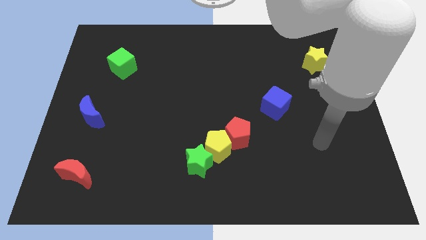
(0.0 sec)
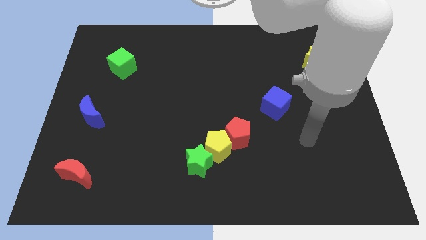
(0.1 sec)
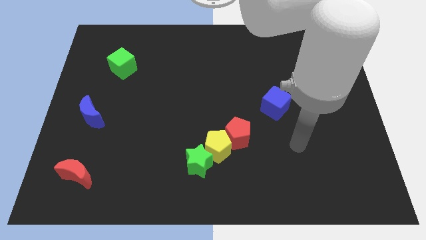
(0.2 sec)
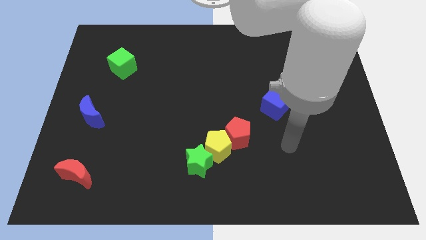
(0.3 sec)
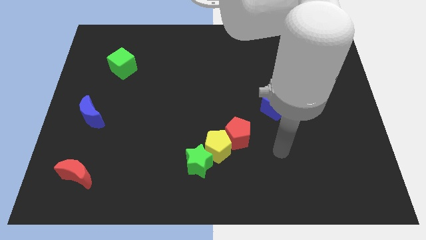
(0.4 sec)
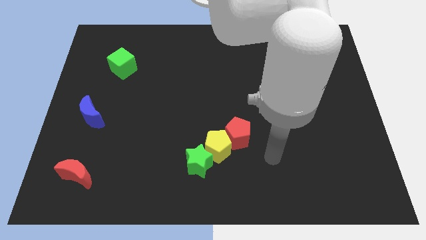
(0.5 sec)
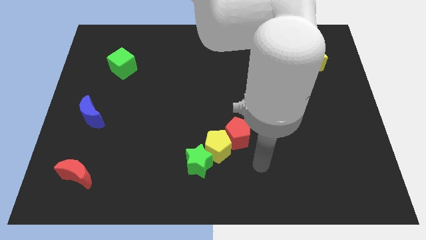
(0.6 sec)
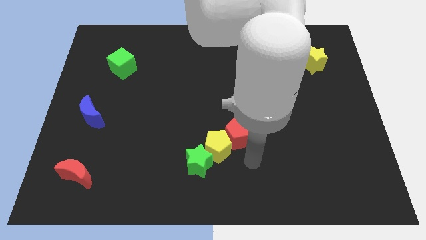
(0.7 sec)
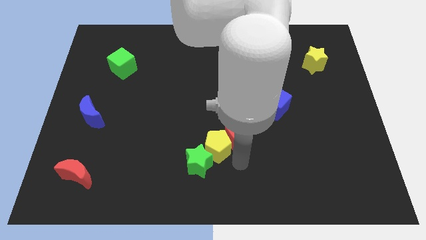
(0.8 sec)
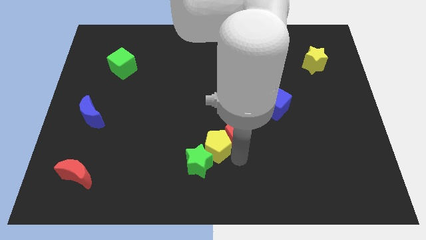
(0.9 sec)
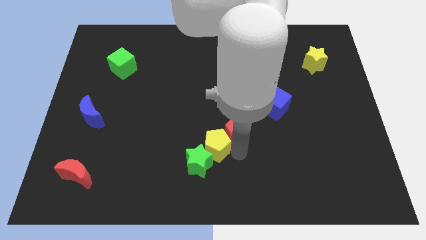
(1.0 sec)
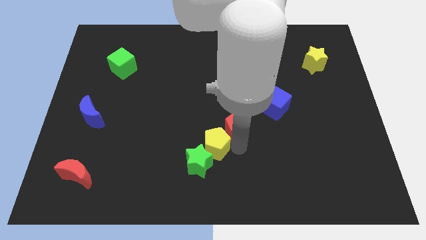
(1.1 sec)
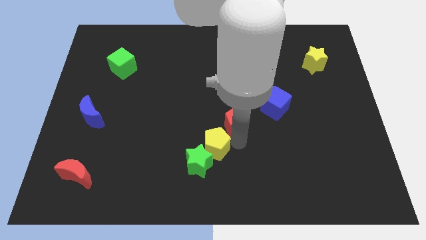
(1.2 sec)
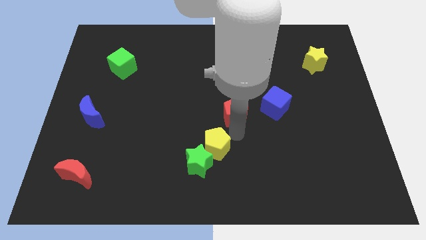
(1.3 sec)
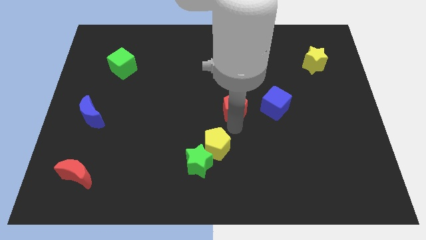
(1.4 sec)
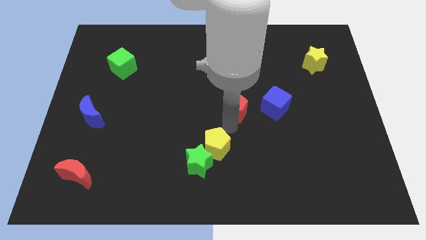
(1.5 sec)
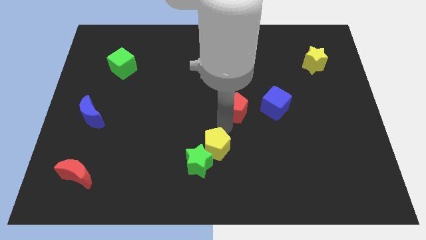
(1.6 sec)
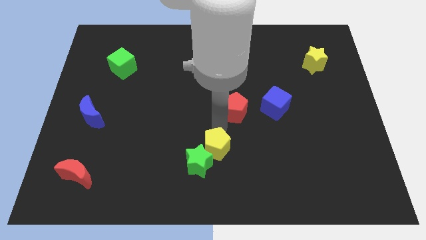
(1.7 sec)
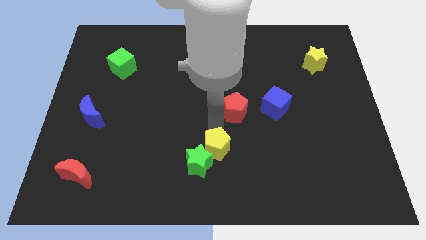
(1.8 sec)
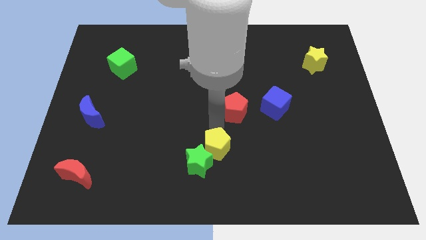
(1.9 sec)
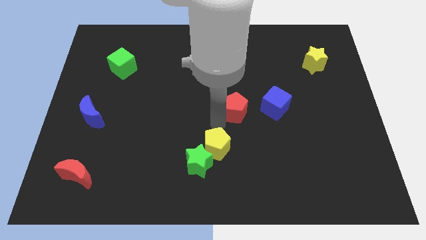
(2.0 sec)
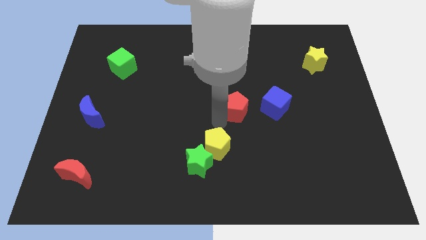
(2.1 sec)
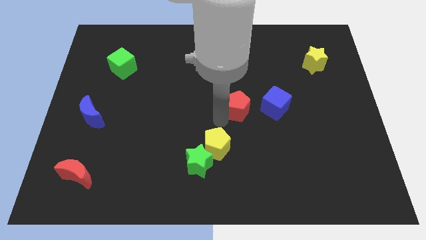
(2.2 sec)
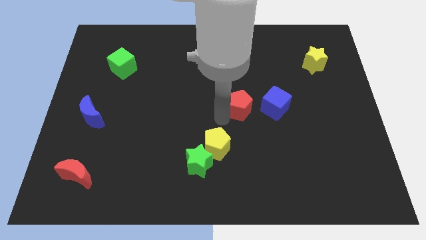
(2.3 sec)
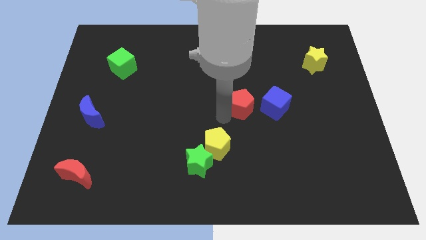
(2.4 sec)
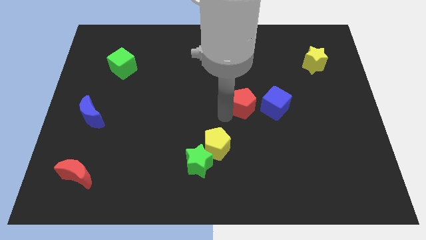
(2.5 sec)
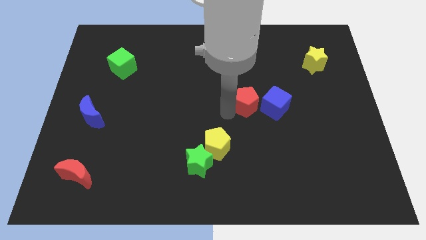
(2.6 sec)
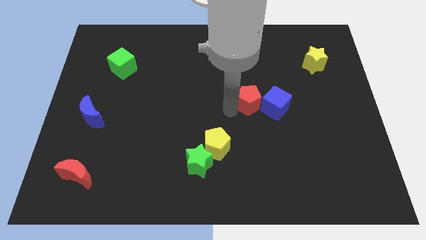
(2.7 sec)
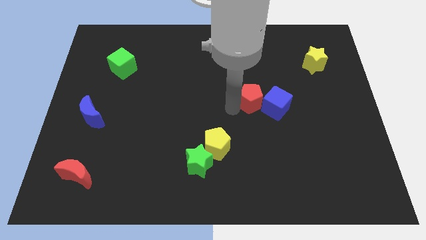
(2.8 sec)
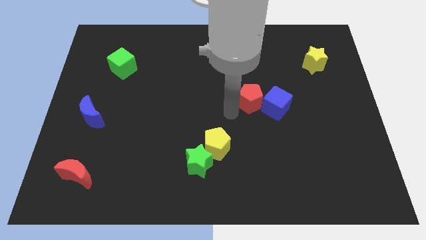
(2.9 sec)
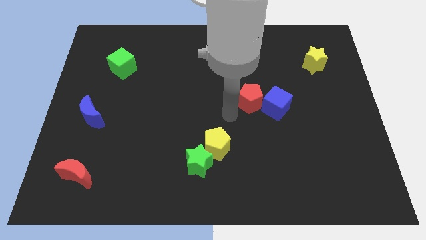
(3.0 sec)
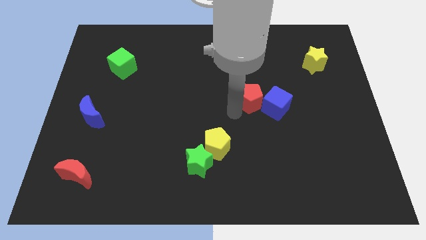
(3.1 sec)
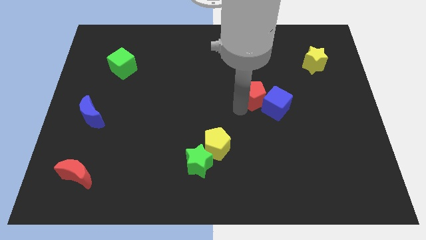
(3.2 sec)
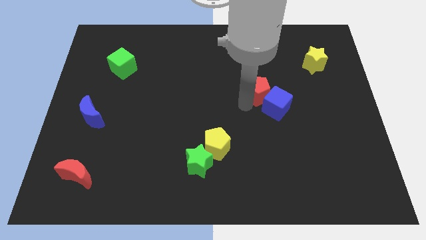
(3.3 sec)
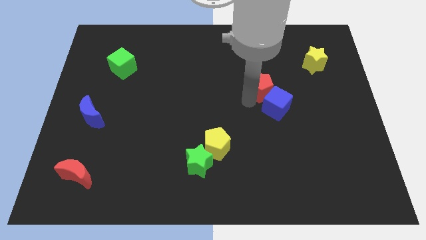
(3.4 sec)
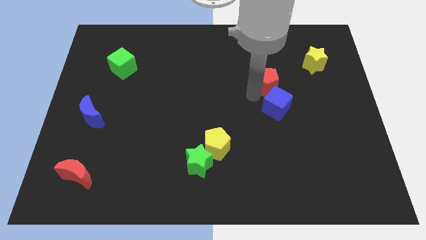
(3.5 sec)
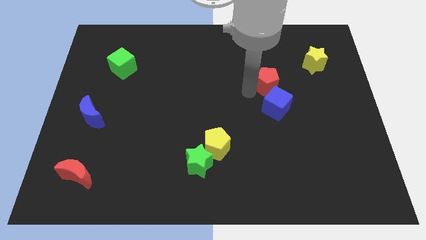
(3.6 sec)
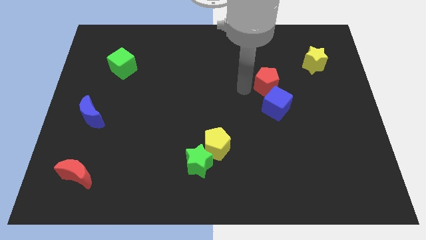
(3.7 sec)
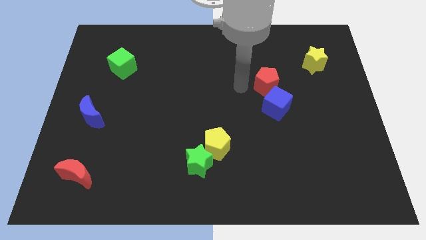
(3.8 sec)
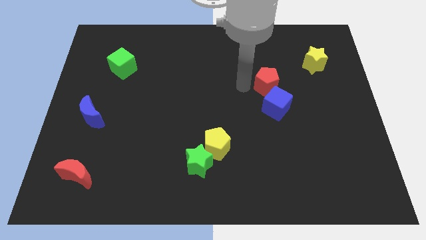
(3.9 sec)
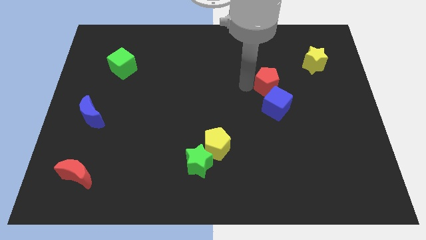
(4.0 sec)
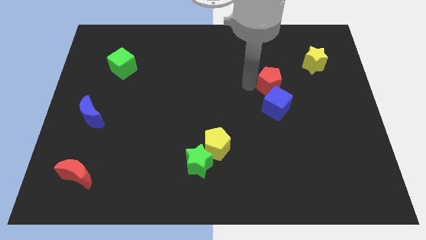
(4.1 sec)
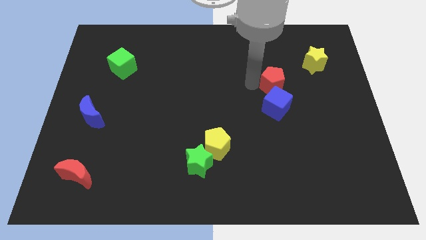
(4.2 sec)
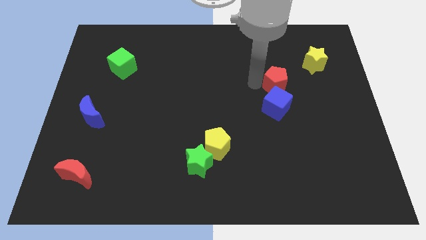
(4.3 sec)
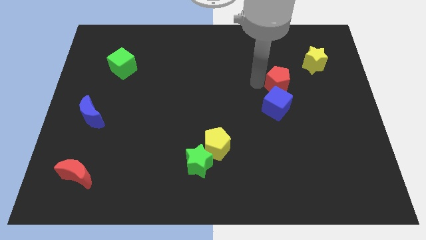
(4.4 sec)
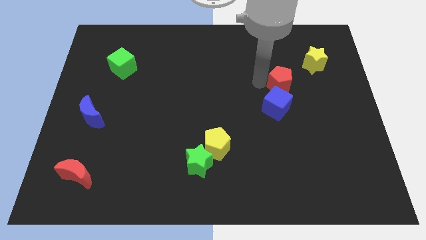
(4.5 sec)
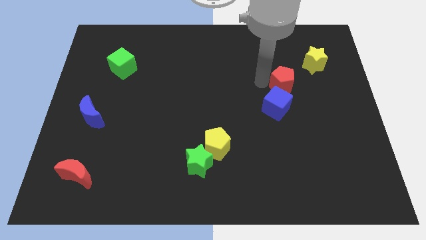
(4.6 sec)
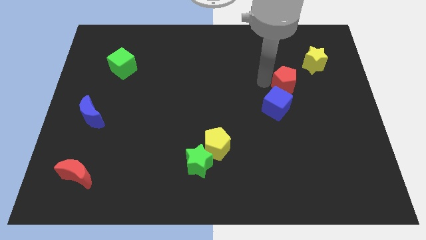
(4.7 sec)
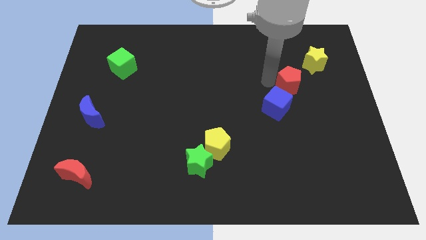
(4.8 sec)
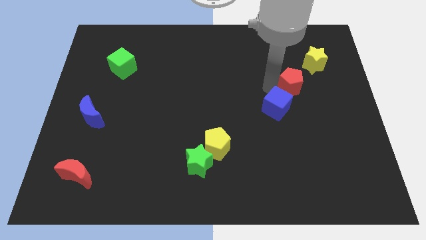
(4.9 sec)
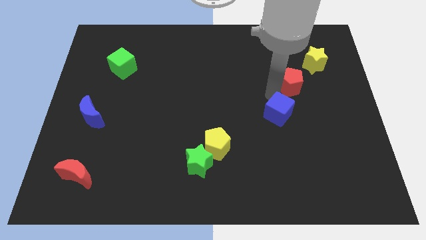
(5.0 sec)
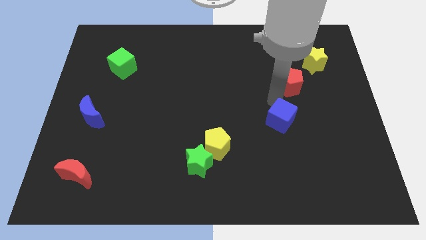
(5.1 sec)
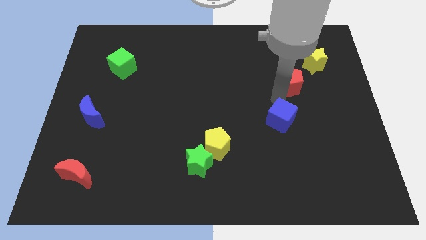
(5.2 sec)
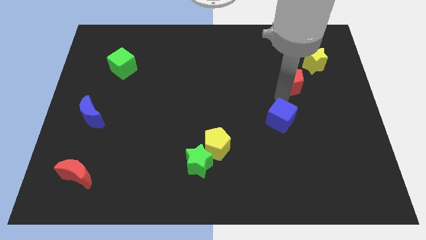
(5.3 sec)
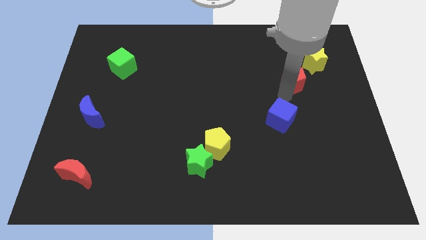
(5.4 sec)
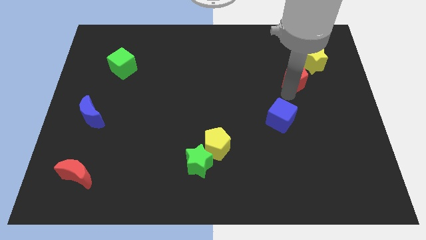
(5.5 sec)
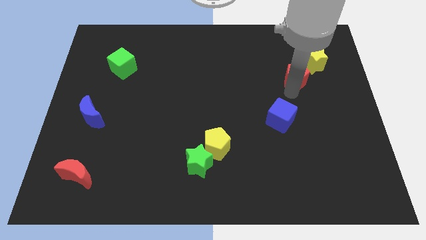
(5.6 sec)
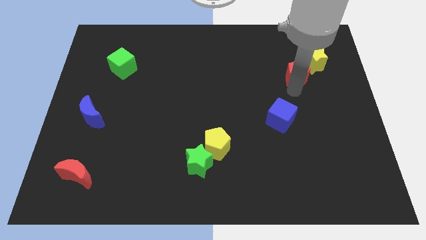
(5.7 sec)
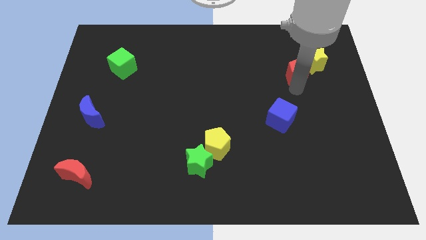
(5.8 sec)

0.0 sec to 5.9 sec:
put the red pentagon towards the yellow star

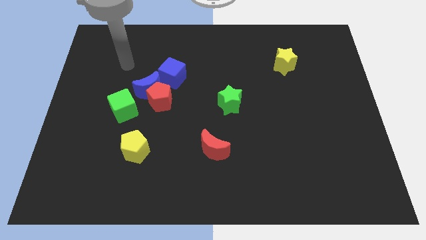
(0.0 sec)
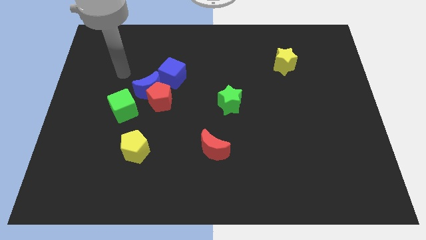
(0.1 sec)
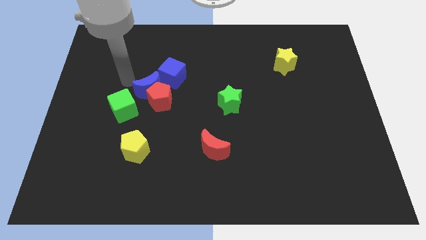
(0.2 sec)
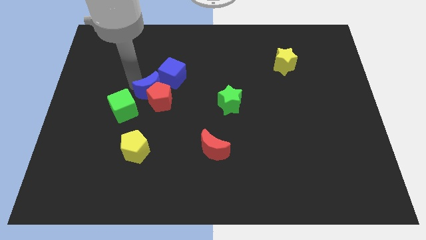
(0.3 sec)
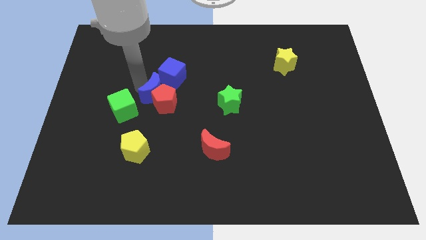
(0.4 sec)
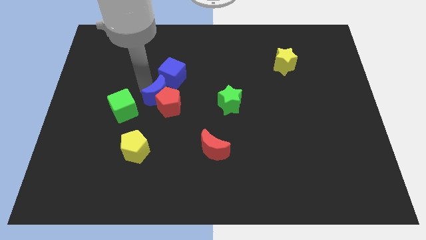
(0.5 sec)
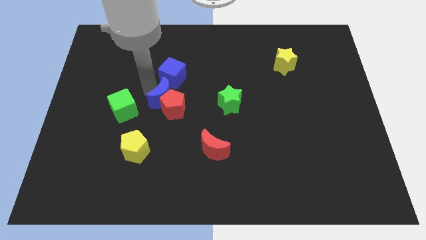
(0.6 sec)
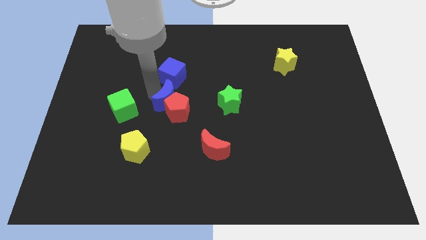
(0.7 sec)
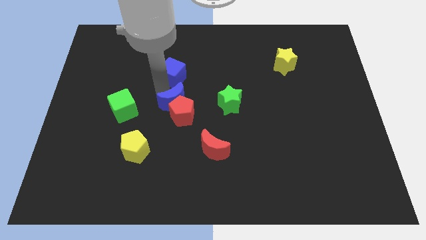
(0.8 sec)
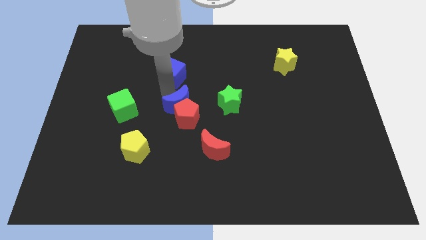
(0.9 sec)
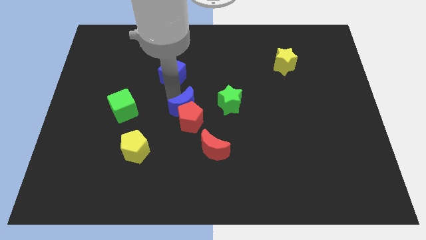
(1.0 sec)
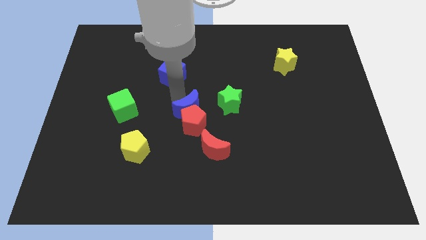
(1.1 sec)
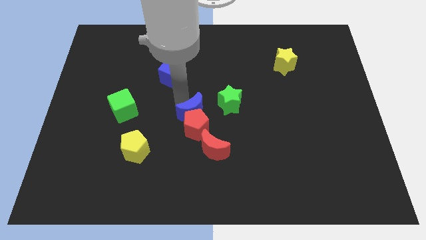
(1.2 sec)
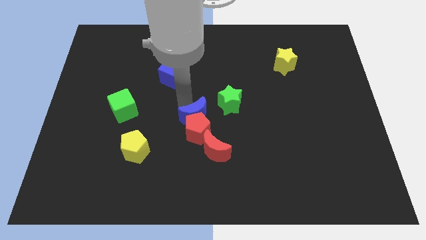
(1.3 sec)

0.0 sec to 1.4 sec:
push the red pentagon next to the red moon

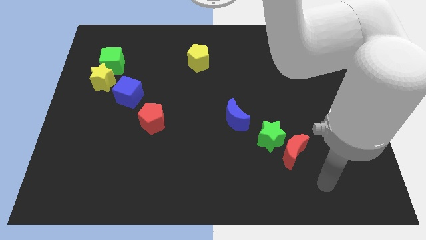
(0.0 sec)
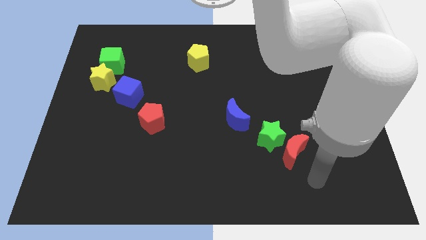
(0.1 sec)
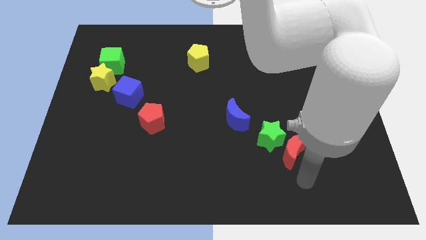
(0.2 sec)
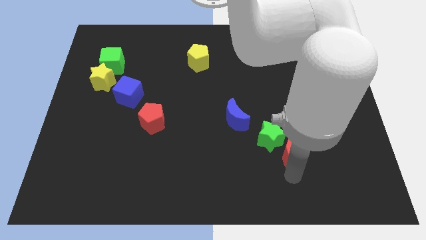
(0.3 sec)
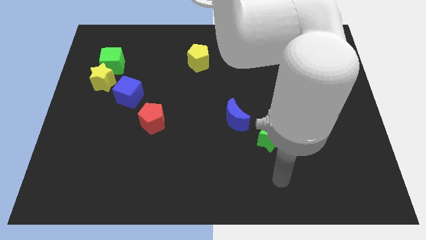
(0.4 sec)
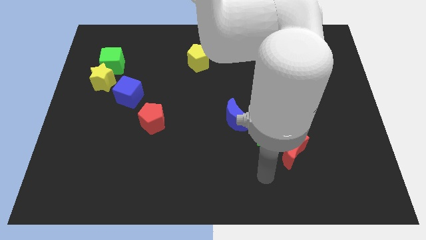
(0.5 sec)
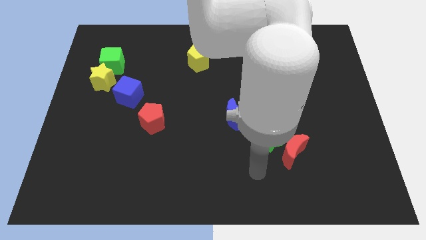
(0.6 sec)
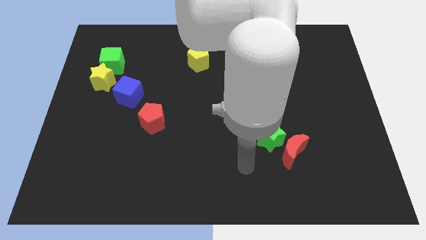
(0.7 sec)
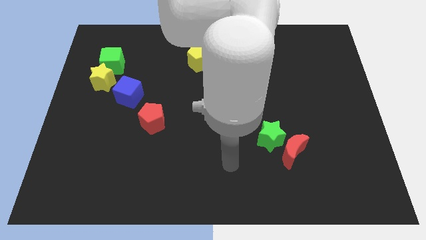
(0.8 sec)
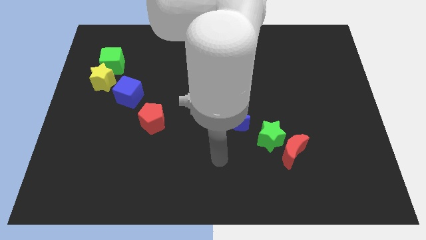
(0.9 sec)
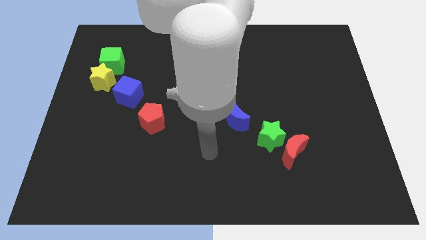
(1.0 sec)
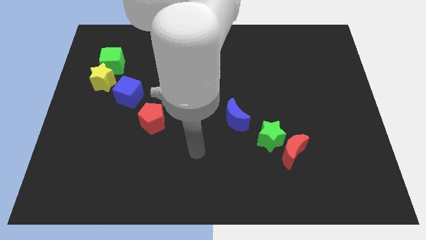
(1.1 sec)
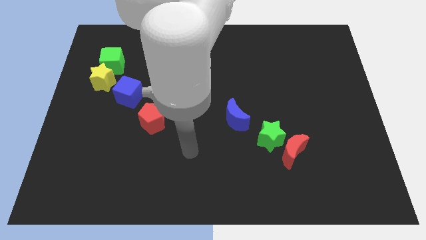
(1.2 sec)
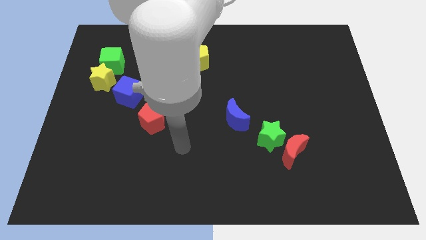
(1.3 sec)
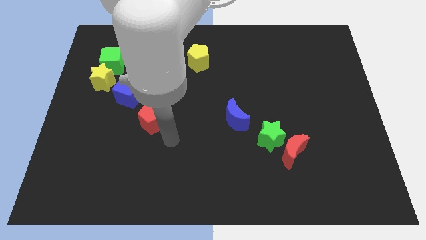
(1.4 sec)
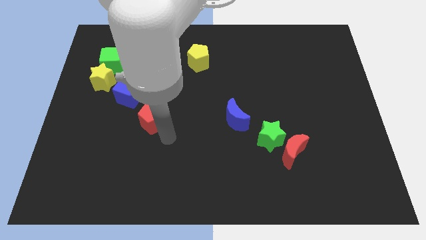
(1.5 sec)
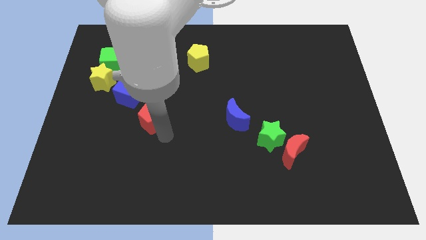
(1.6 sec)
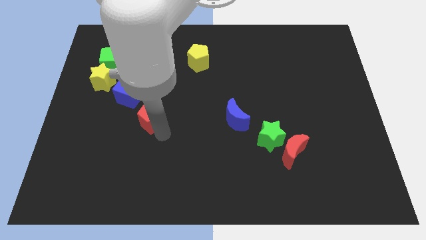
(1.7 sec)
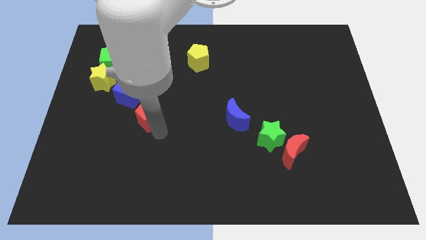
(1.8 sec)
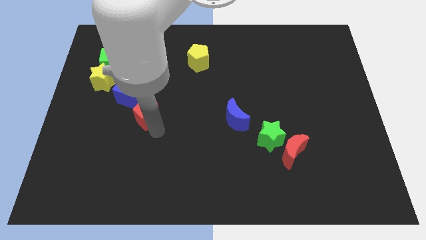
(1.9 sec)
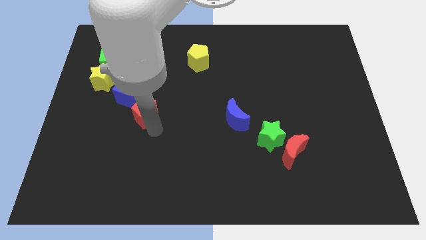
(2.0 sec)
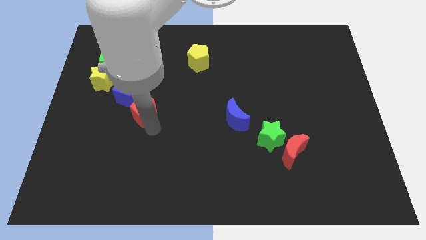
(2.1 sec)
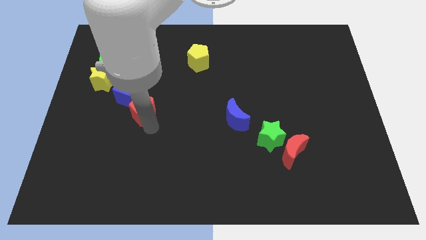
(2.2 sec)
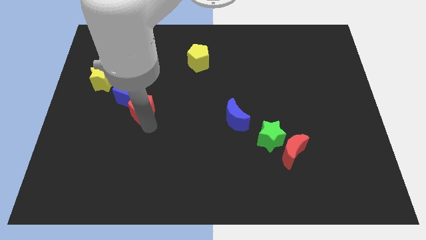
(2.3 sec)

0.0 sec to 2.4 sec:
put the red pentagon towards the blue cube
